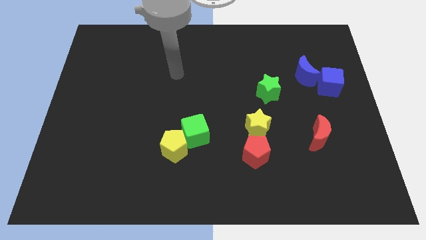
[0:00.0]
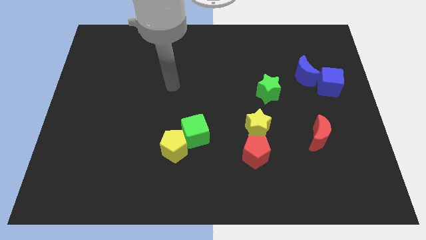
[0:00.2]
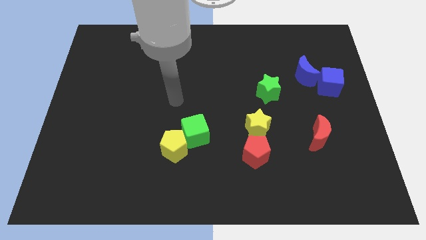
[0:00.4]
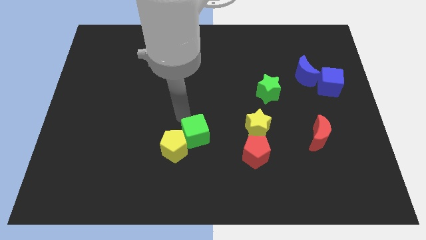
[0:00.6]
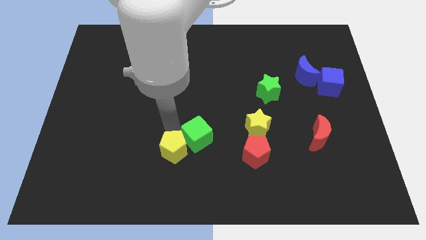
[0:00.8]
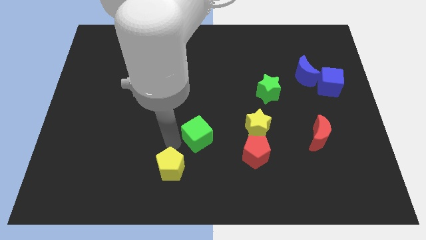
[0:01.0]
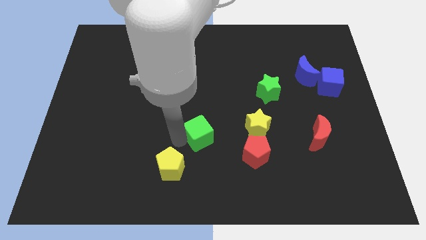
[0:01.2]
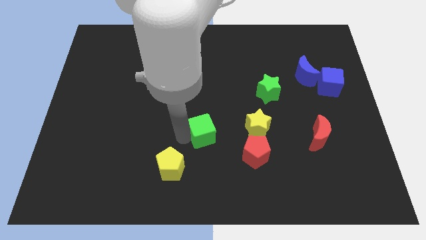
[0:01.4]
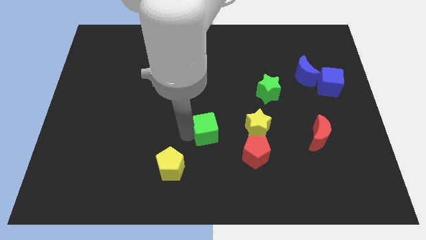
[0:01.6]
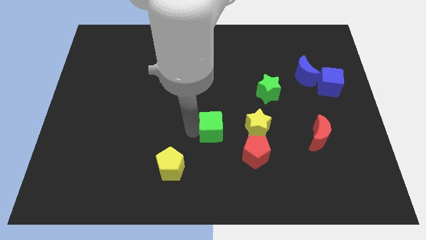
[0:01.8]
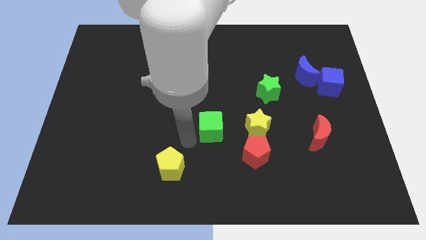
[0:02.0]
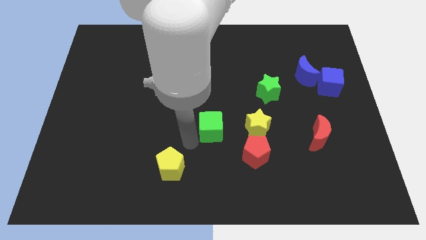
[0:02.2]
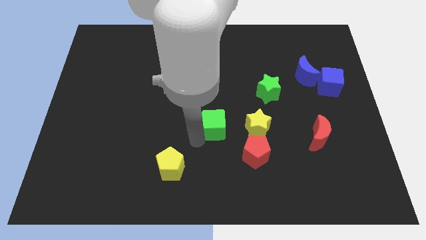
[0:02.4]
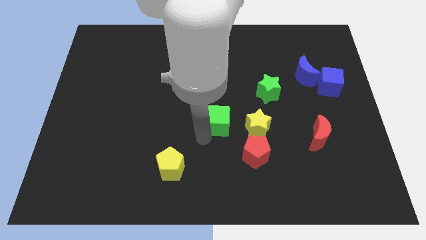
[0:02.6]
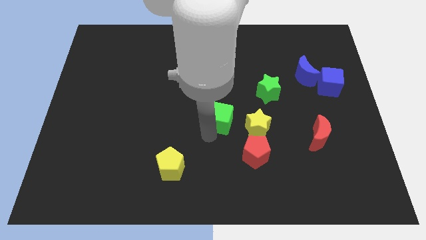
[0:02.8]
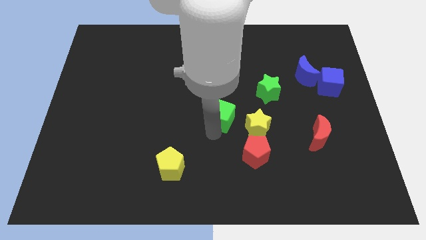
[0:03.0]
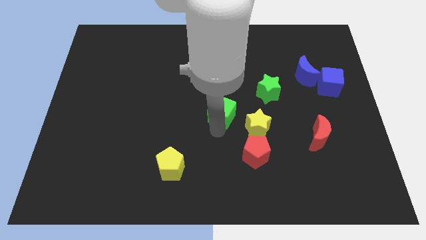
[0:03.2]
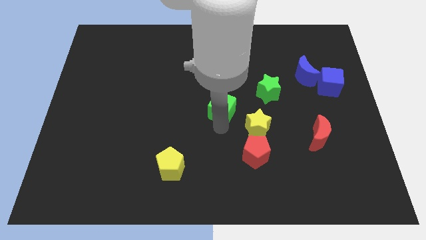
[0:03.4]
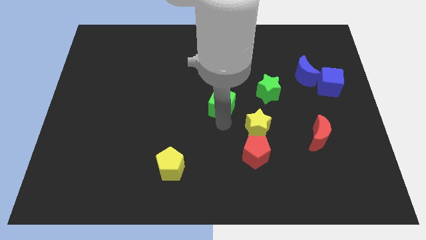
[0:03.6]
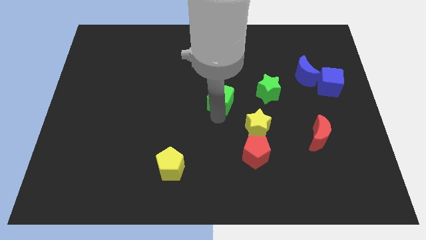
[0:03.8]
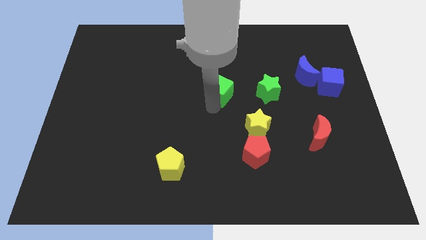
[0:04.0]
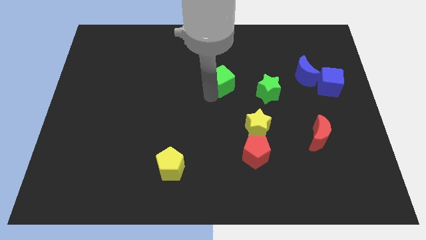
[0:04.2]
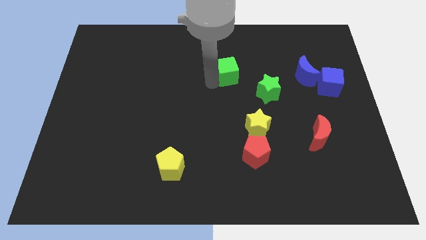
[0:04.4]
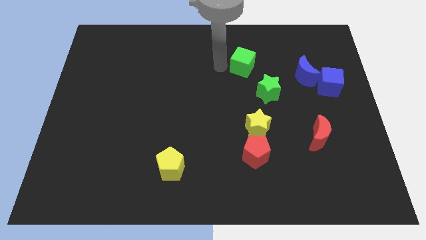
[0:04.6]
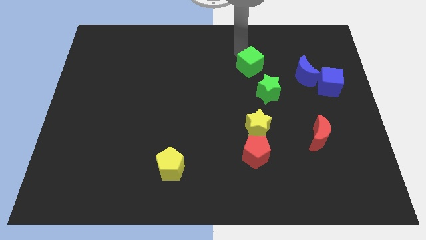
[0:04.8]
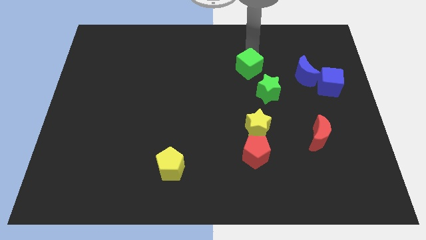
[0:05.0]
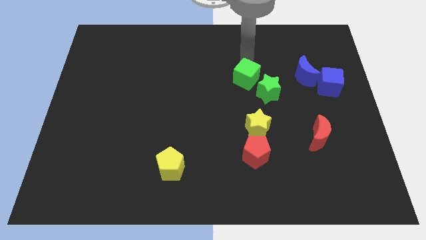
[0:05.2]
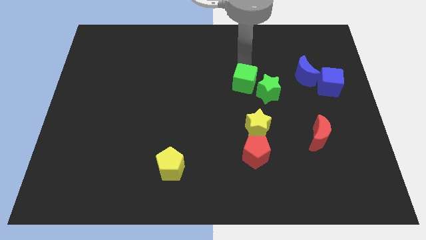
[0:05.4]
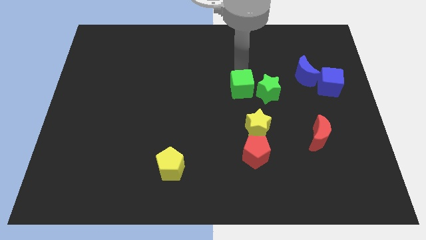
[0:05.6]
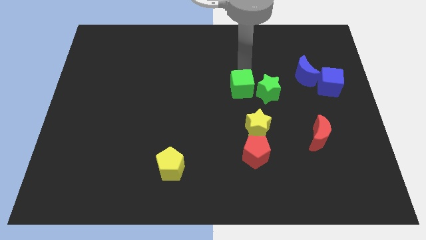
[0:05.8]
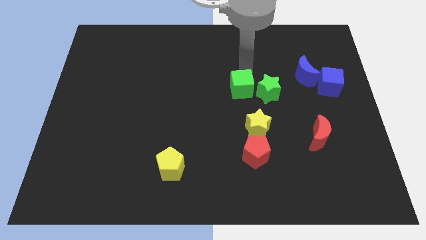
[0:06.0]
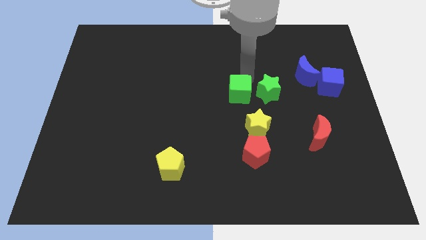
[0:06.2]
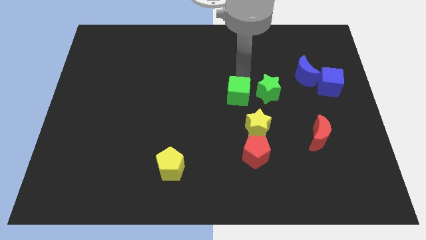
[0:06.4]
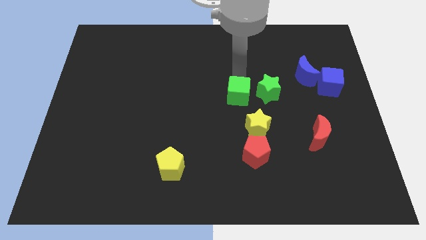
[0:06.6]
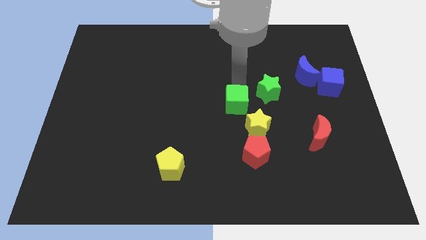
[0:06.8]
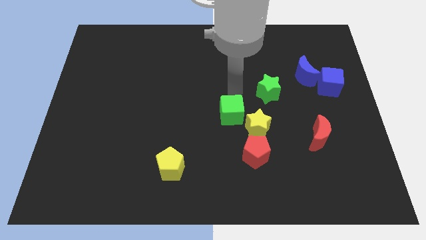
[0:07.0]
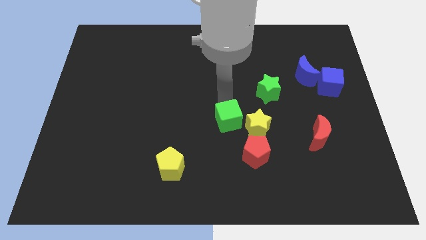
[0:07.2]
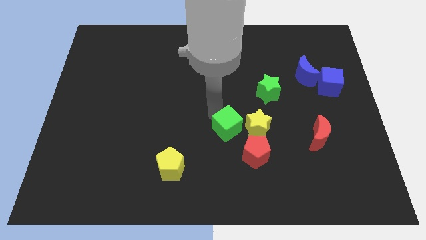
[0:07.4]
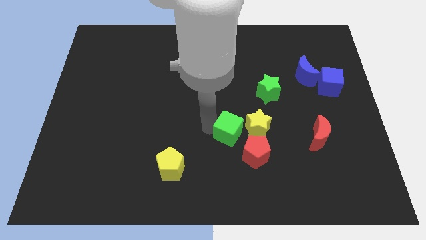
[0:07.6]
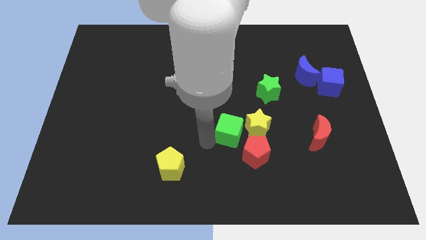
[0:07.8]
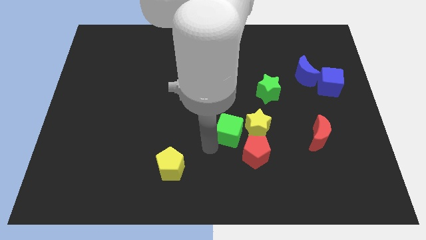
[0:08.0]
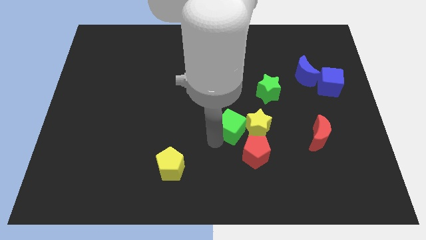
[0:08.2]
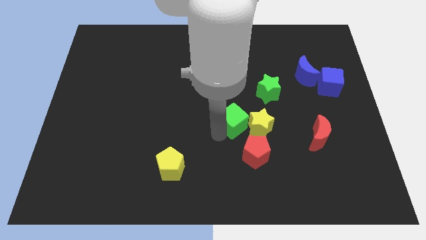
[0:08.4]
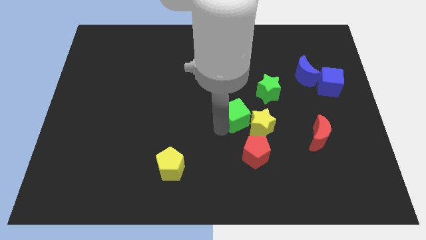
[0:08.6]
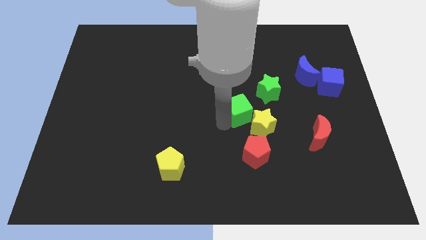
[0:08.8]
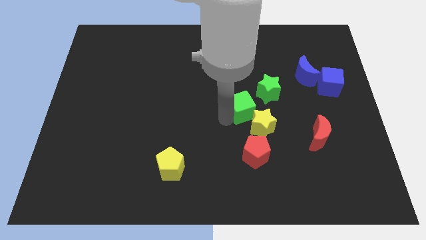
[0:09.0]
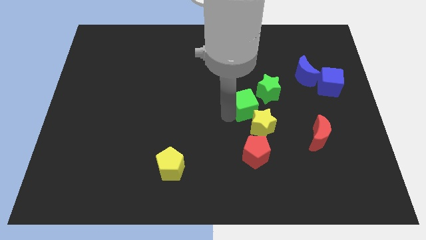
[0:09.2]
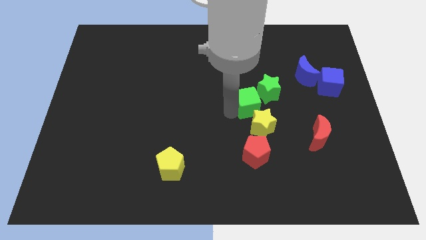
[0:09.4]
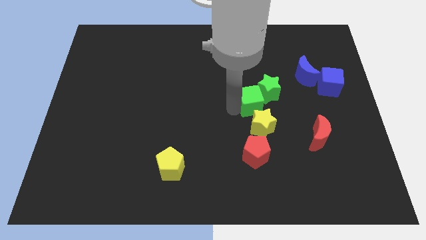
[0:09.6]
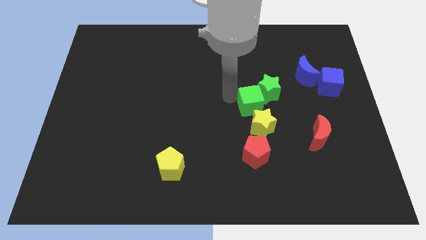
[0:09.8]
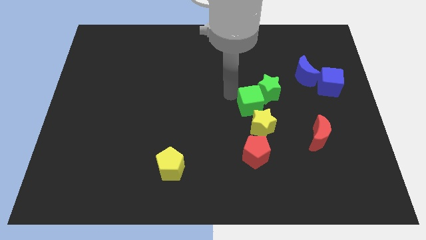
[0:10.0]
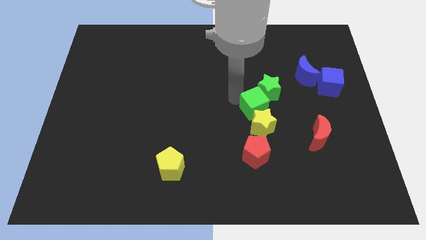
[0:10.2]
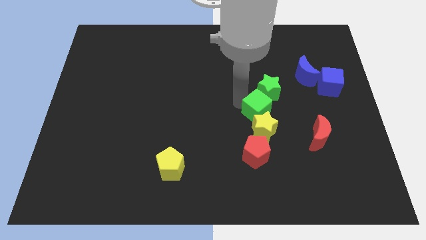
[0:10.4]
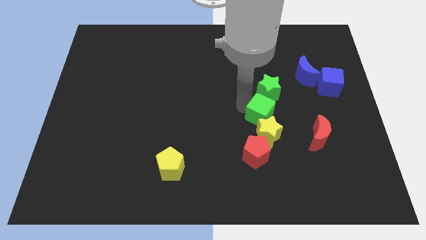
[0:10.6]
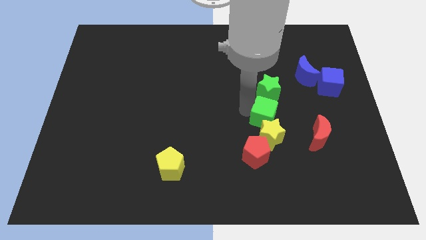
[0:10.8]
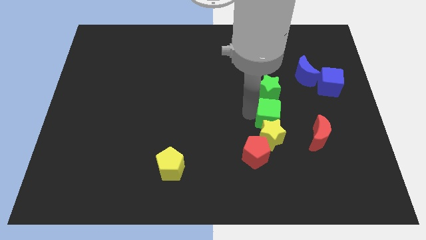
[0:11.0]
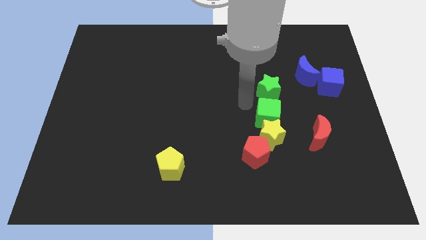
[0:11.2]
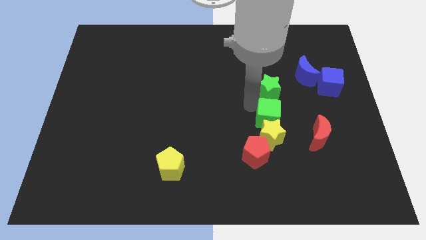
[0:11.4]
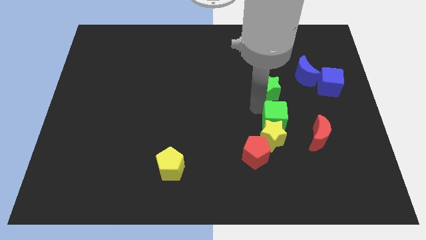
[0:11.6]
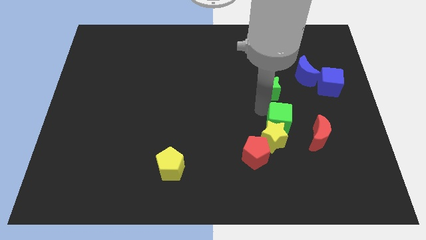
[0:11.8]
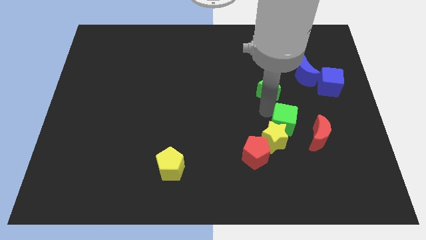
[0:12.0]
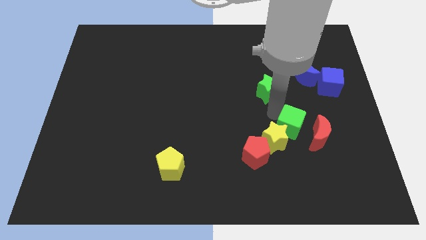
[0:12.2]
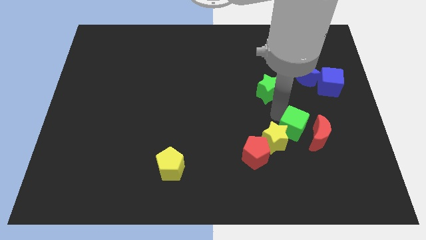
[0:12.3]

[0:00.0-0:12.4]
put the green cube to the red moon

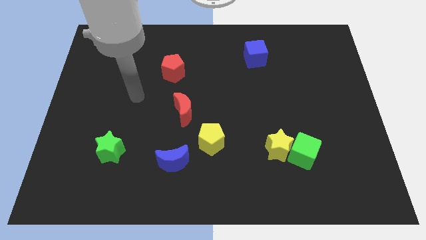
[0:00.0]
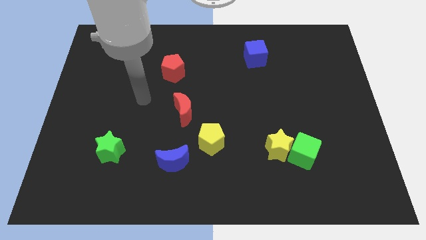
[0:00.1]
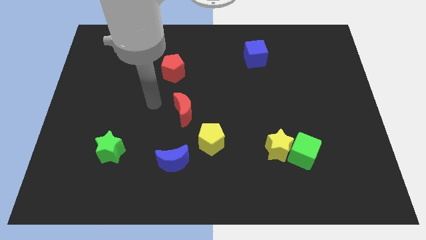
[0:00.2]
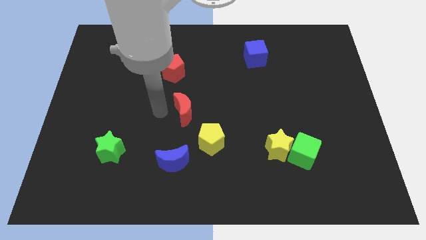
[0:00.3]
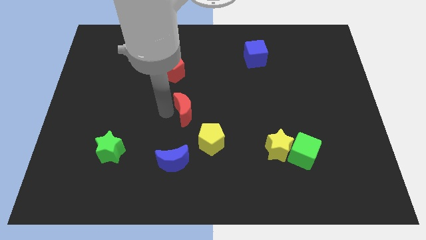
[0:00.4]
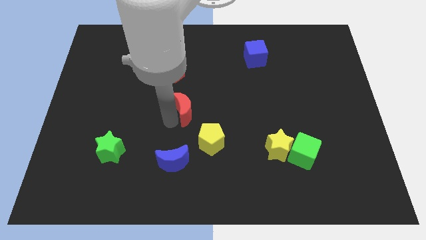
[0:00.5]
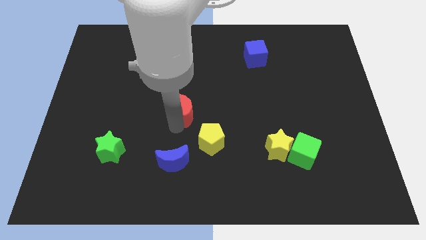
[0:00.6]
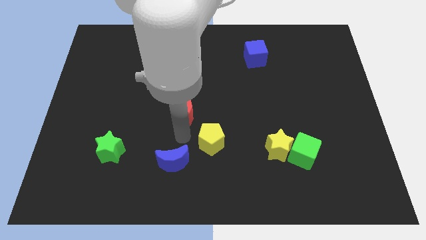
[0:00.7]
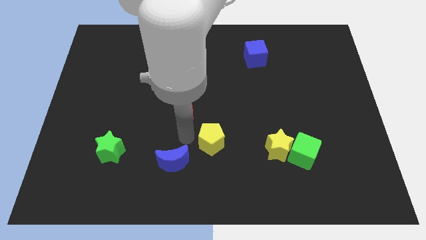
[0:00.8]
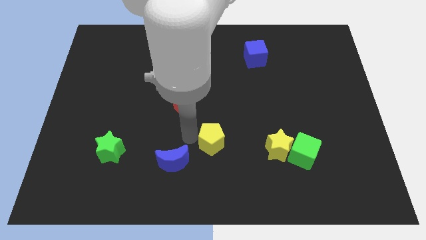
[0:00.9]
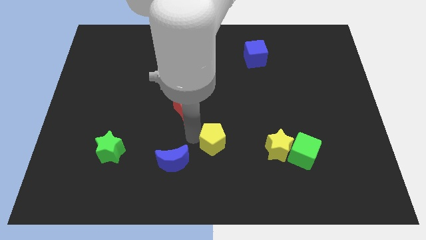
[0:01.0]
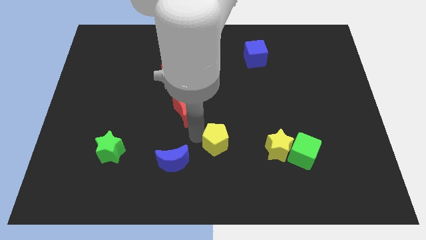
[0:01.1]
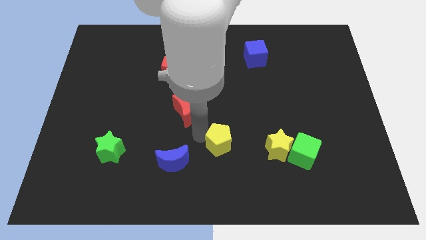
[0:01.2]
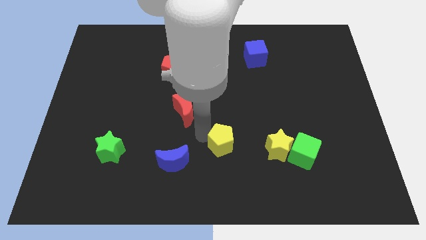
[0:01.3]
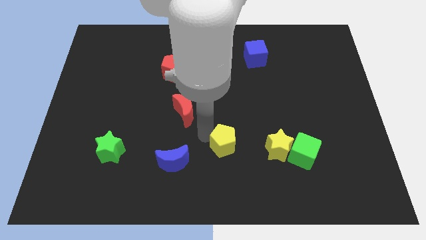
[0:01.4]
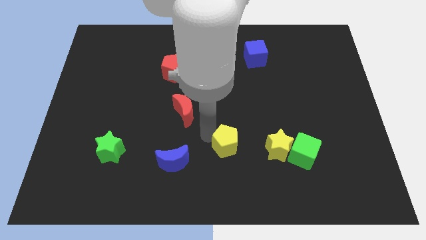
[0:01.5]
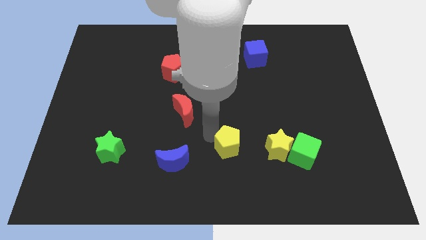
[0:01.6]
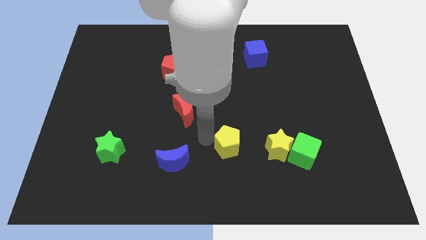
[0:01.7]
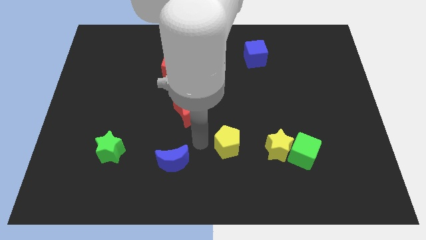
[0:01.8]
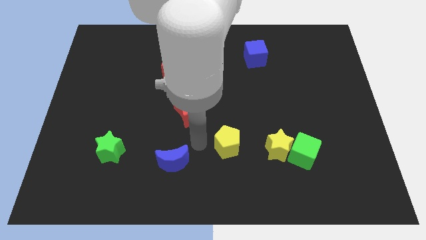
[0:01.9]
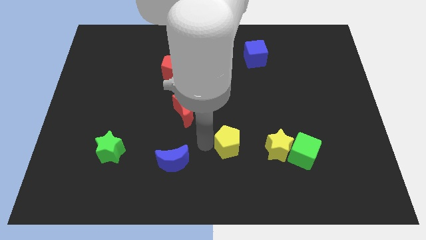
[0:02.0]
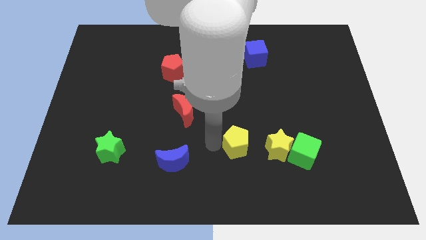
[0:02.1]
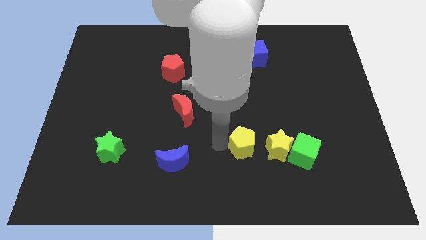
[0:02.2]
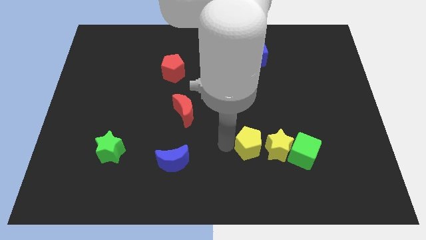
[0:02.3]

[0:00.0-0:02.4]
slide the yellow pentagon towards the yellow star
